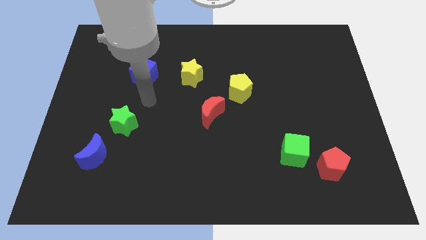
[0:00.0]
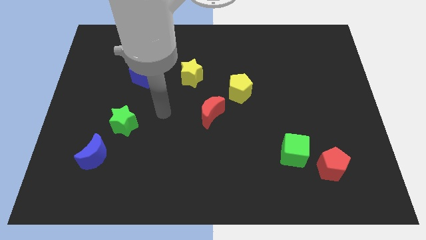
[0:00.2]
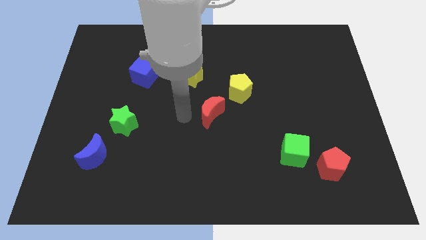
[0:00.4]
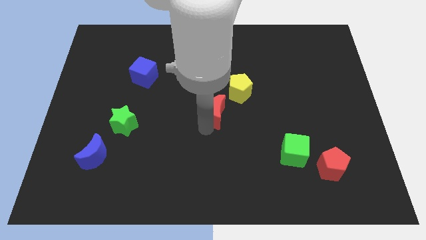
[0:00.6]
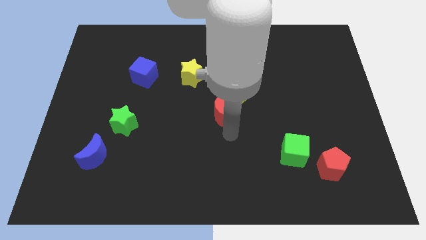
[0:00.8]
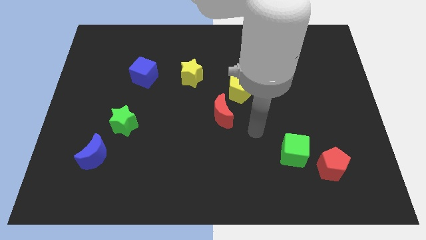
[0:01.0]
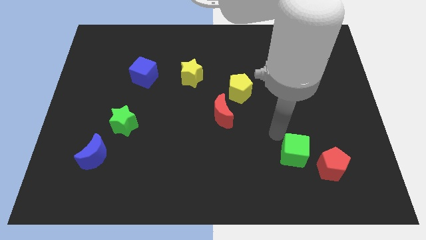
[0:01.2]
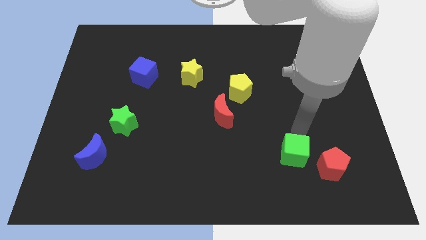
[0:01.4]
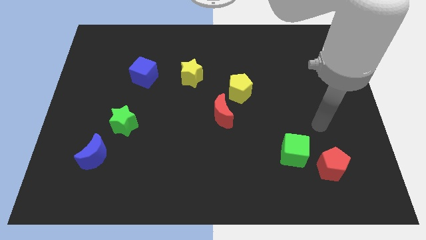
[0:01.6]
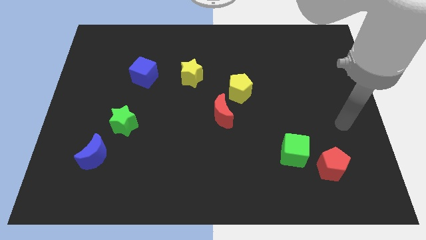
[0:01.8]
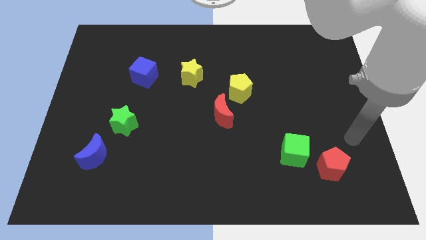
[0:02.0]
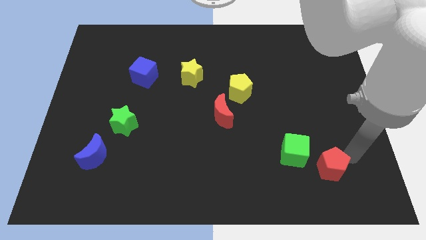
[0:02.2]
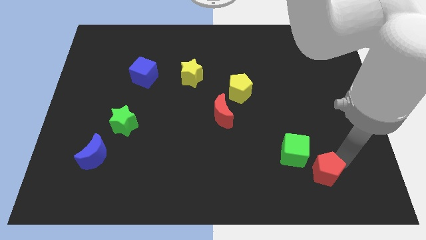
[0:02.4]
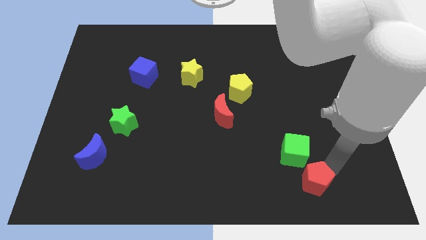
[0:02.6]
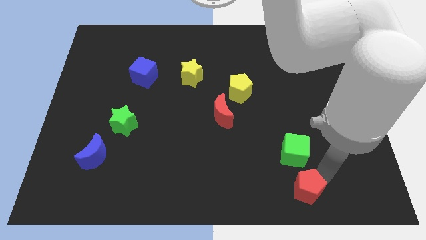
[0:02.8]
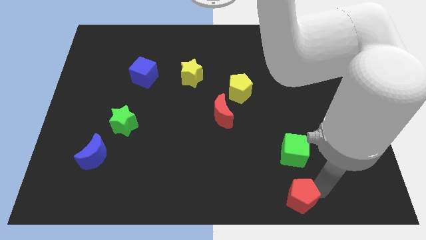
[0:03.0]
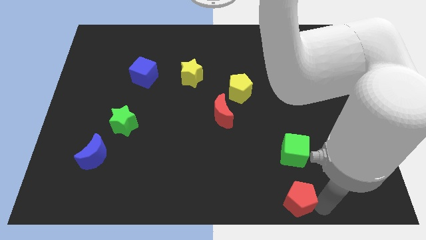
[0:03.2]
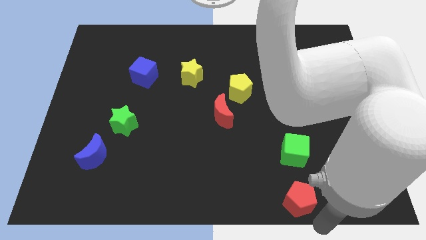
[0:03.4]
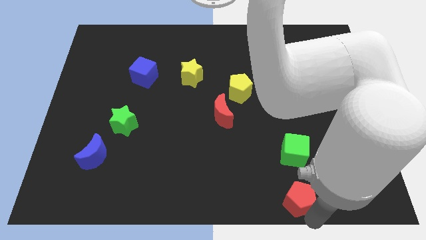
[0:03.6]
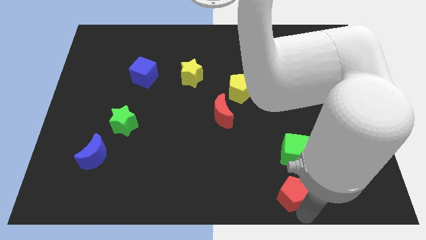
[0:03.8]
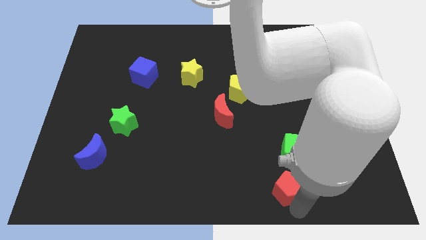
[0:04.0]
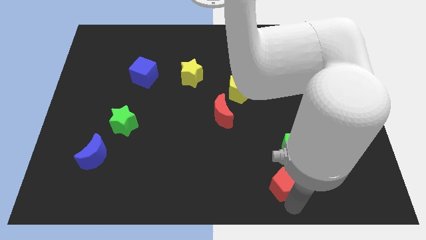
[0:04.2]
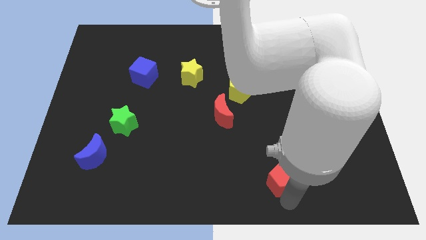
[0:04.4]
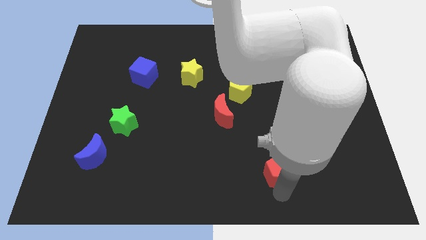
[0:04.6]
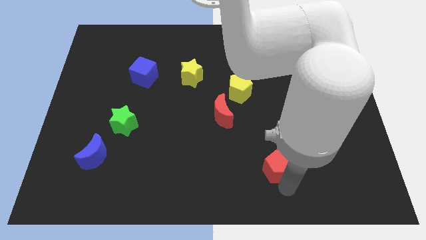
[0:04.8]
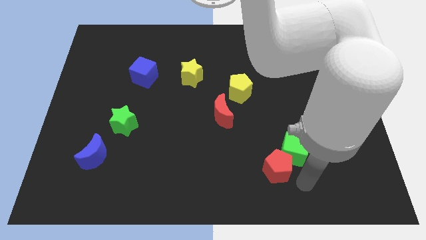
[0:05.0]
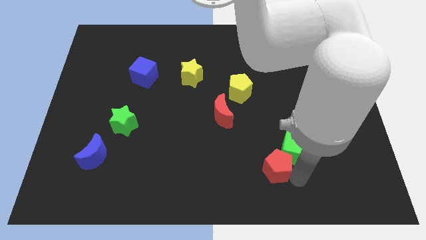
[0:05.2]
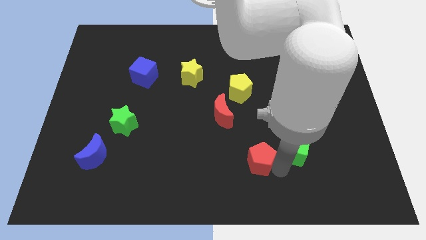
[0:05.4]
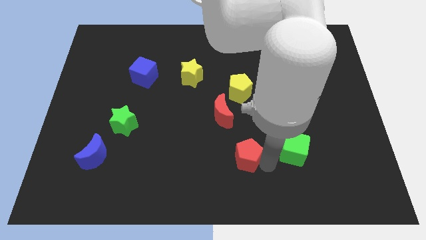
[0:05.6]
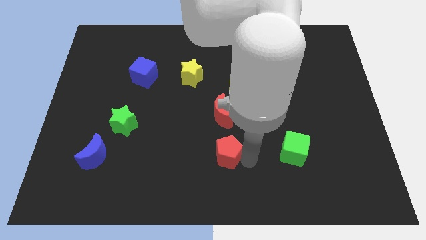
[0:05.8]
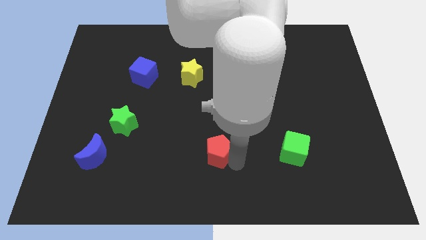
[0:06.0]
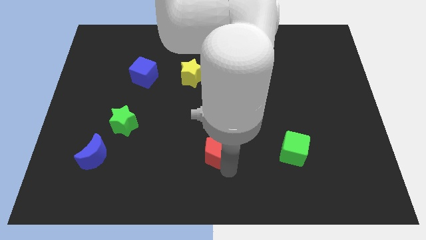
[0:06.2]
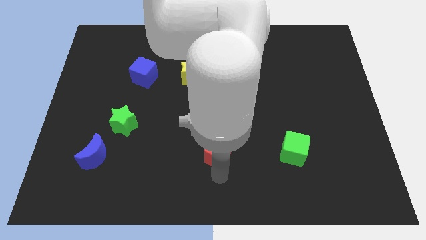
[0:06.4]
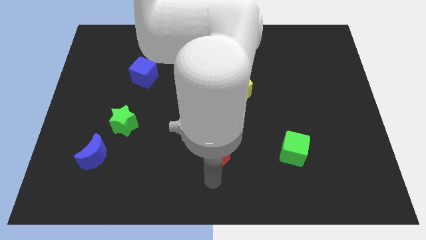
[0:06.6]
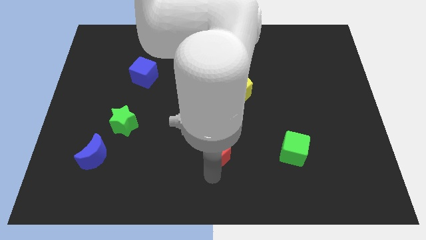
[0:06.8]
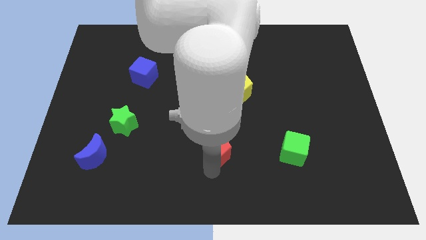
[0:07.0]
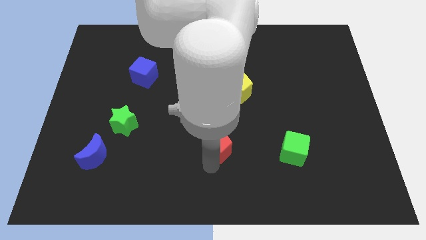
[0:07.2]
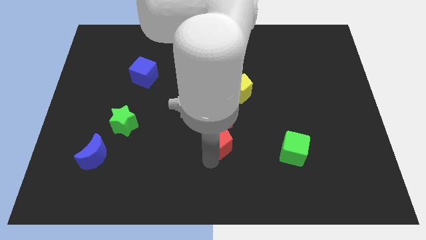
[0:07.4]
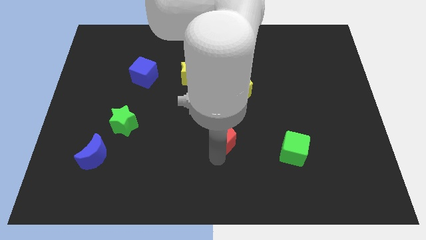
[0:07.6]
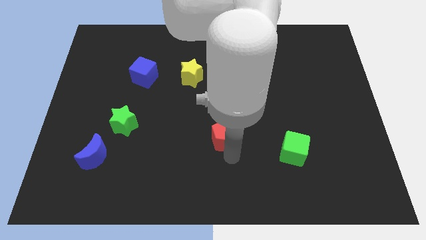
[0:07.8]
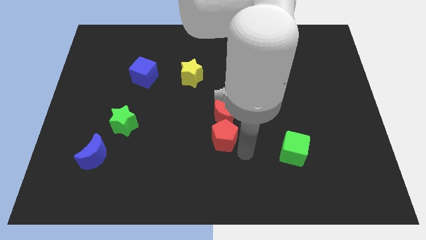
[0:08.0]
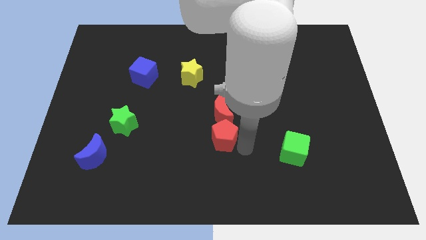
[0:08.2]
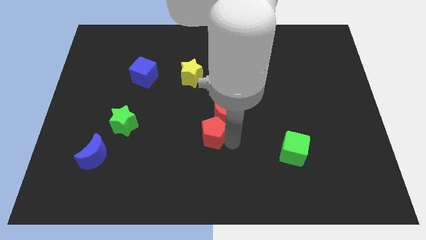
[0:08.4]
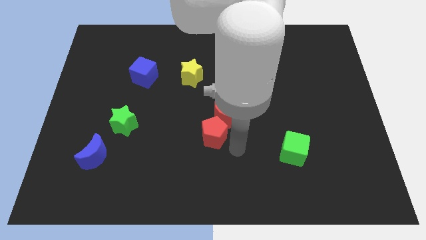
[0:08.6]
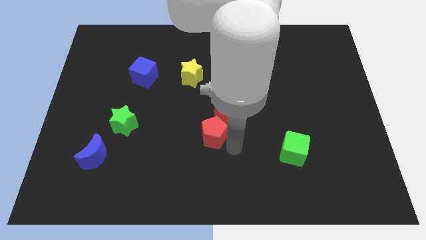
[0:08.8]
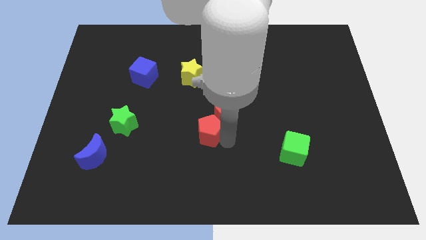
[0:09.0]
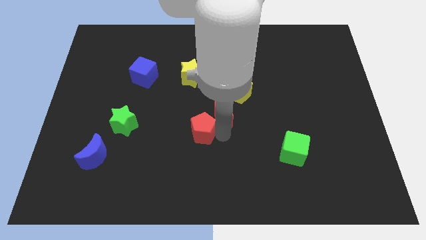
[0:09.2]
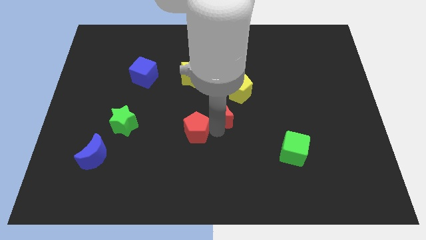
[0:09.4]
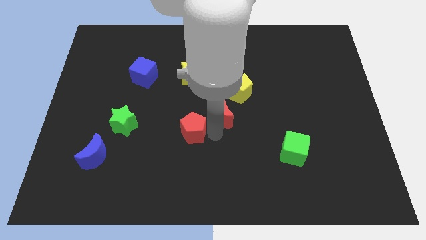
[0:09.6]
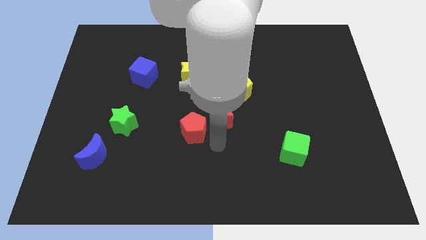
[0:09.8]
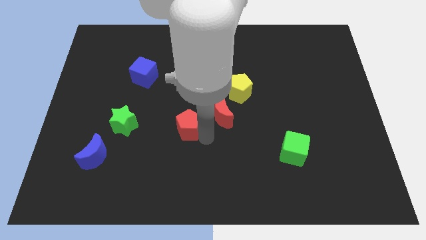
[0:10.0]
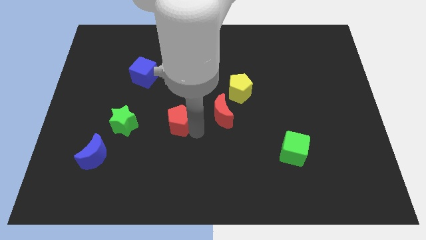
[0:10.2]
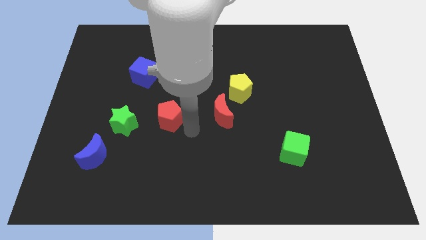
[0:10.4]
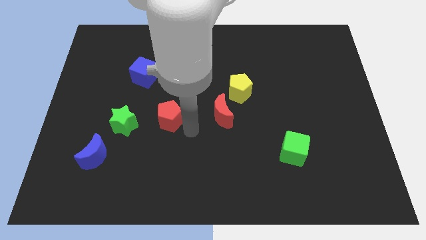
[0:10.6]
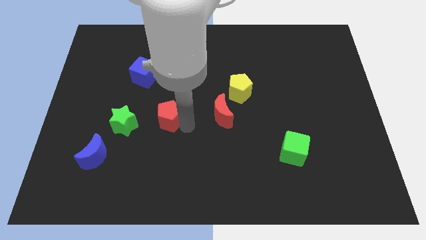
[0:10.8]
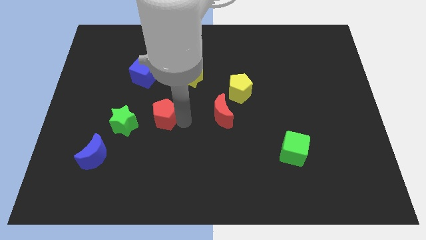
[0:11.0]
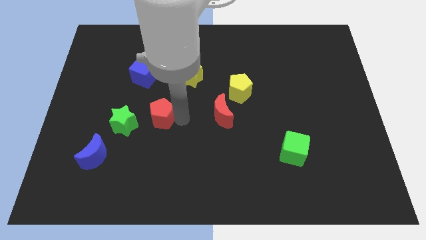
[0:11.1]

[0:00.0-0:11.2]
slide the red pentagon to the top right side of the green star

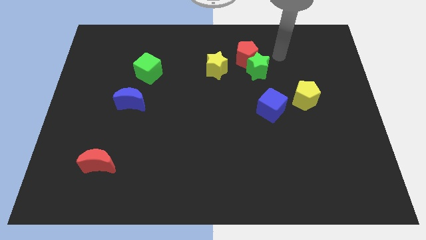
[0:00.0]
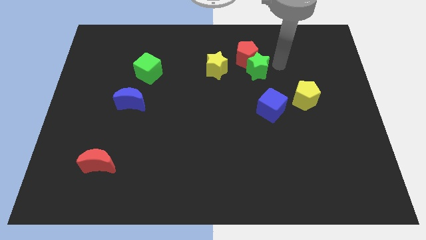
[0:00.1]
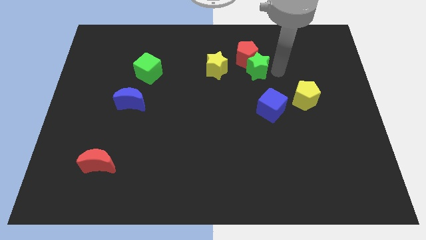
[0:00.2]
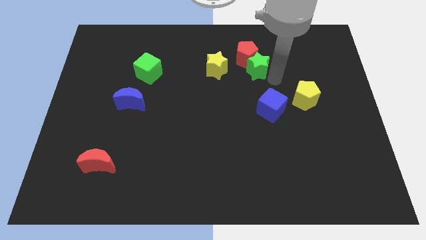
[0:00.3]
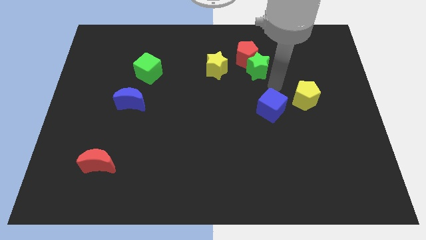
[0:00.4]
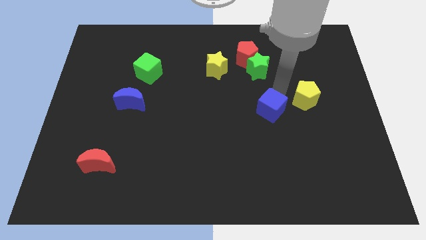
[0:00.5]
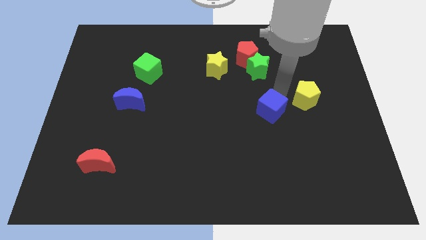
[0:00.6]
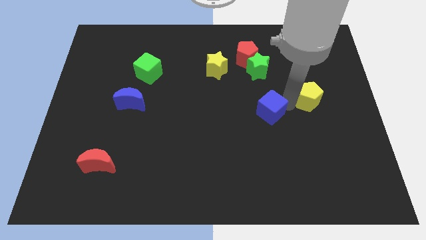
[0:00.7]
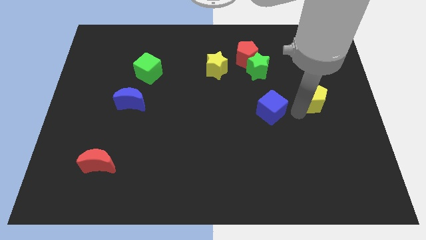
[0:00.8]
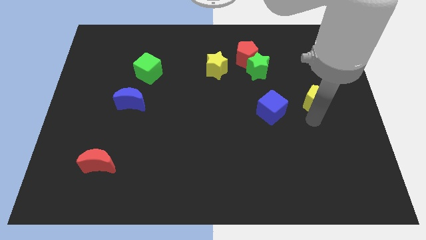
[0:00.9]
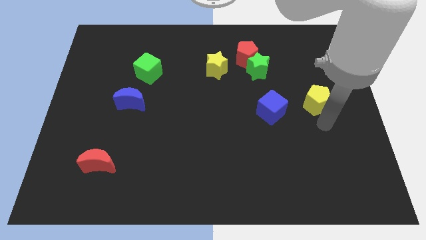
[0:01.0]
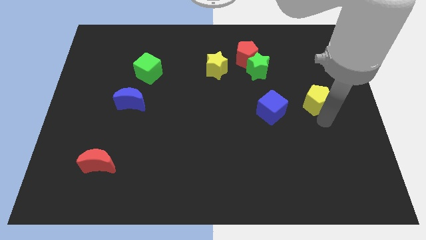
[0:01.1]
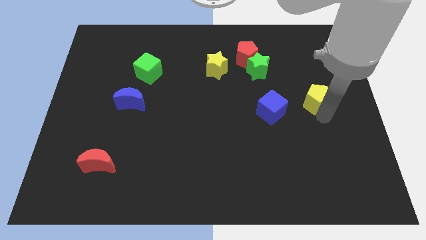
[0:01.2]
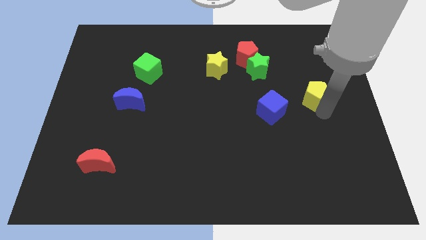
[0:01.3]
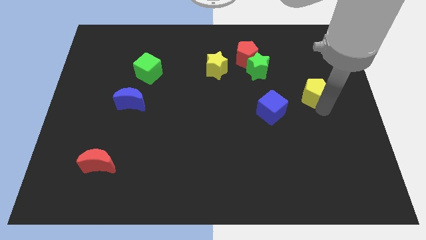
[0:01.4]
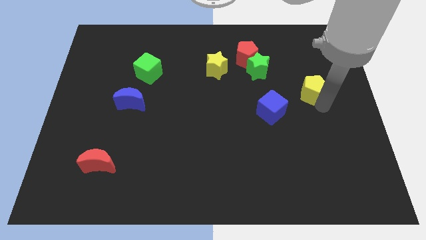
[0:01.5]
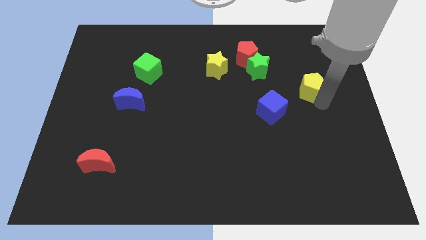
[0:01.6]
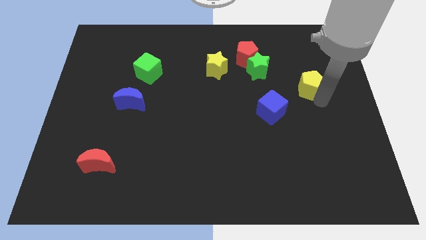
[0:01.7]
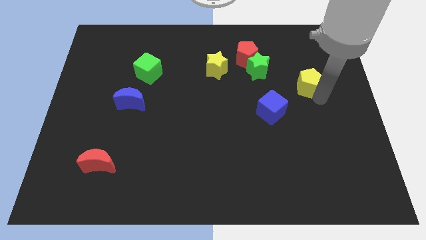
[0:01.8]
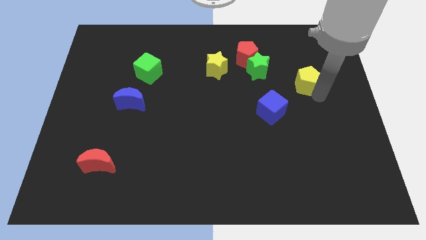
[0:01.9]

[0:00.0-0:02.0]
push the yellow pentagon to the right of the green star
